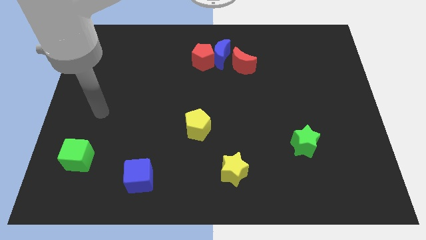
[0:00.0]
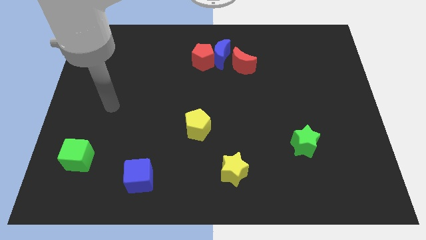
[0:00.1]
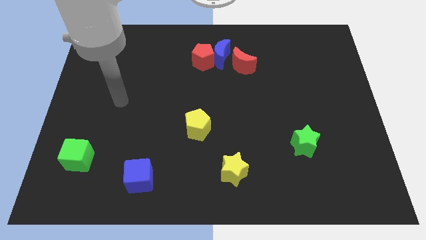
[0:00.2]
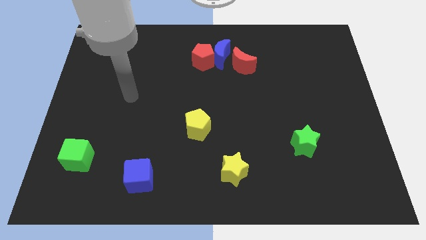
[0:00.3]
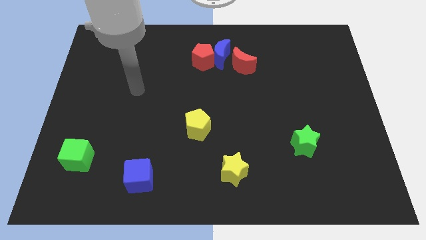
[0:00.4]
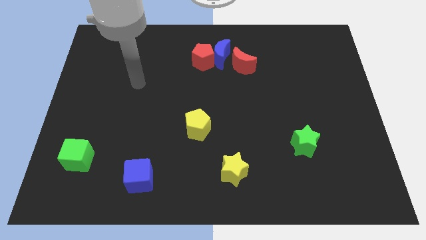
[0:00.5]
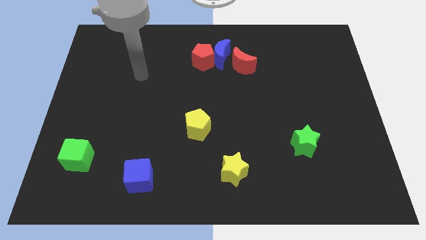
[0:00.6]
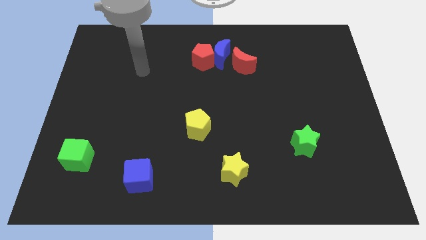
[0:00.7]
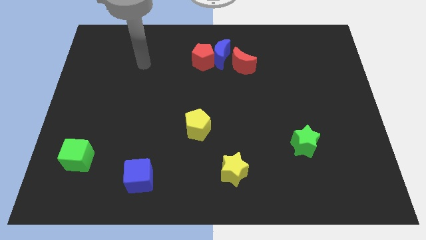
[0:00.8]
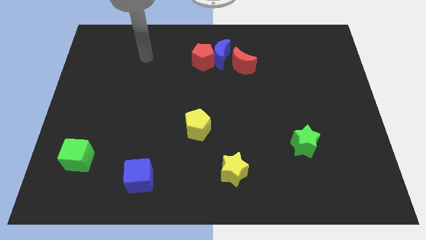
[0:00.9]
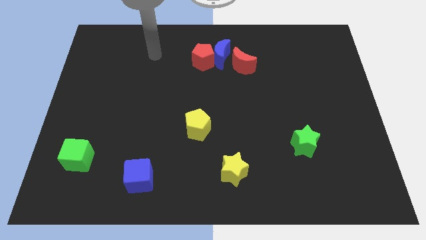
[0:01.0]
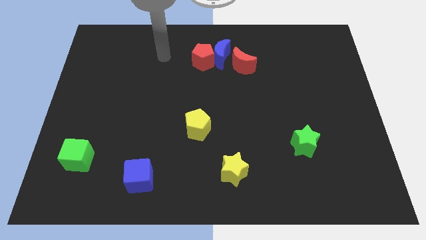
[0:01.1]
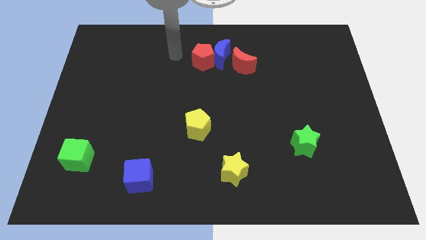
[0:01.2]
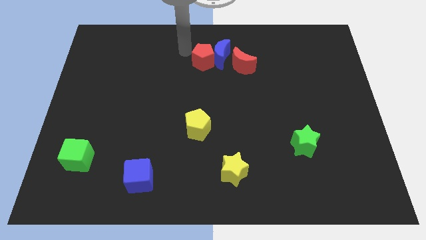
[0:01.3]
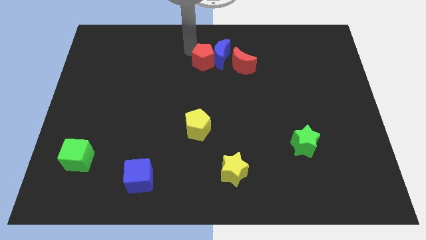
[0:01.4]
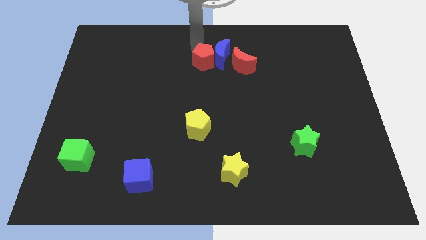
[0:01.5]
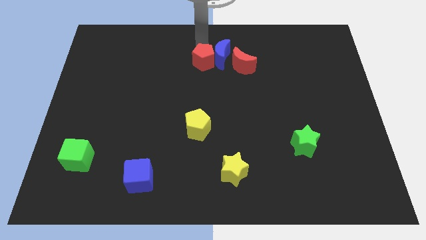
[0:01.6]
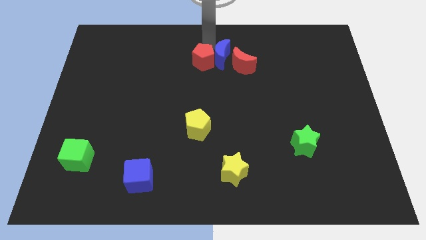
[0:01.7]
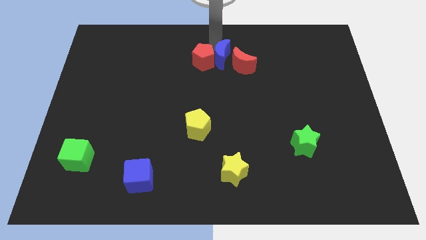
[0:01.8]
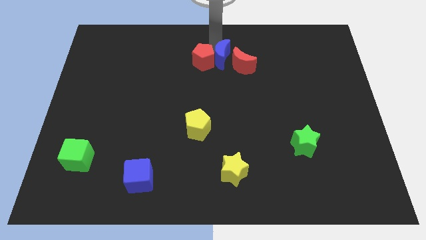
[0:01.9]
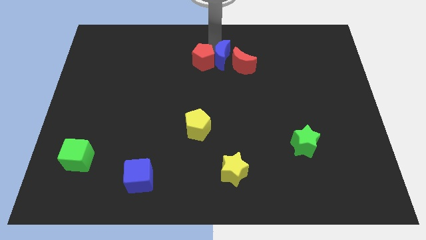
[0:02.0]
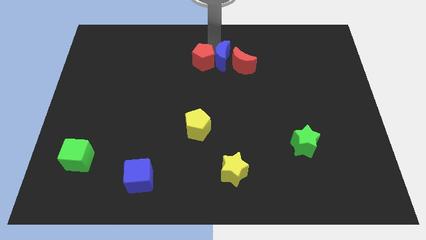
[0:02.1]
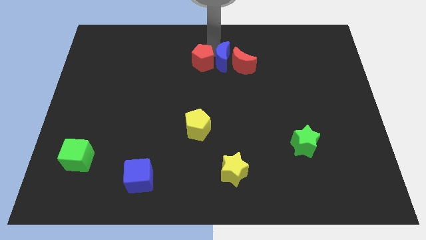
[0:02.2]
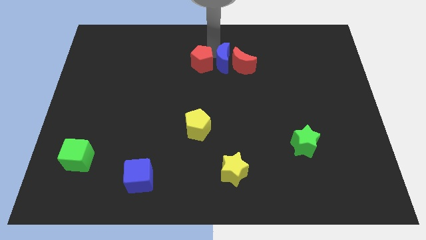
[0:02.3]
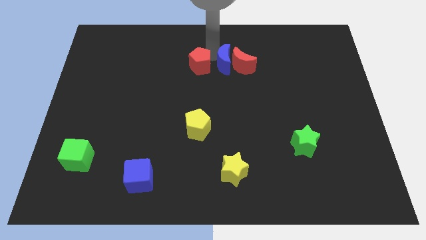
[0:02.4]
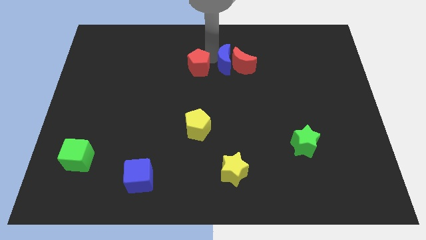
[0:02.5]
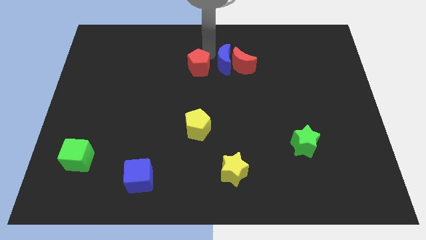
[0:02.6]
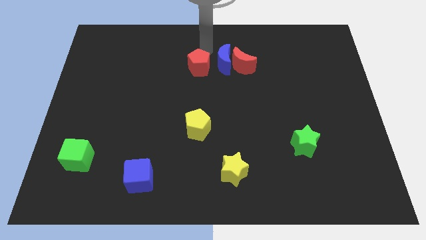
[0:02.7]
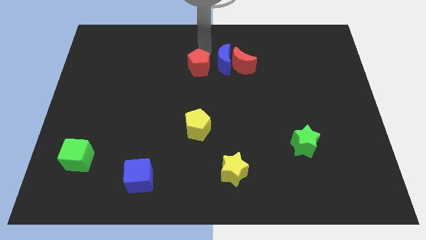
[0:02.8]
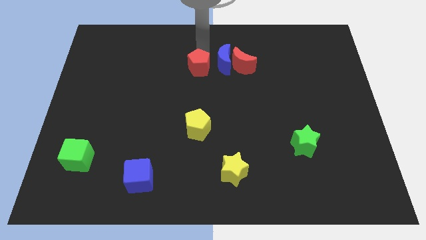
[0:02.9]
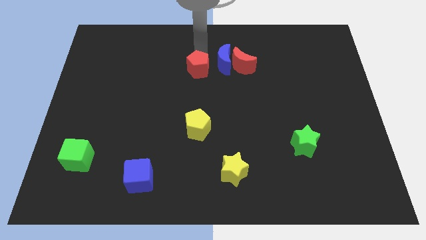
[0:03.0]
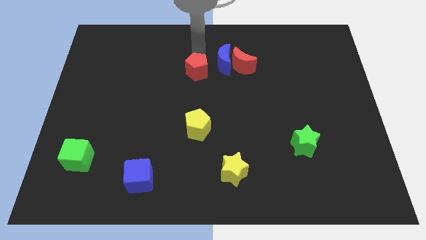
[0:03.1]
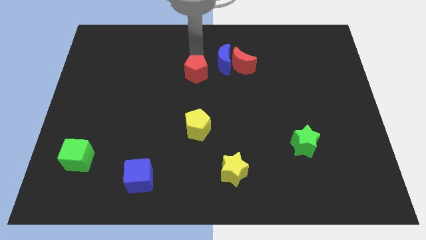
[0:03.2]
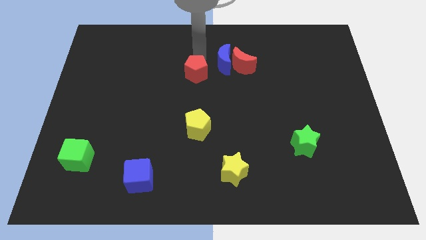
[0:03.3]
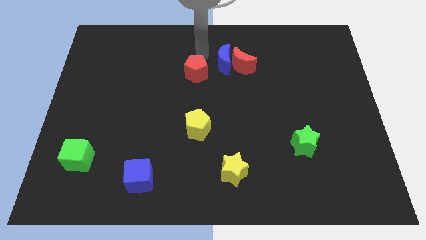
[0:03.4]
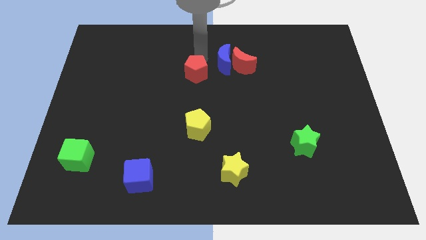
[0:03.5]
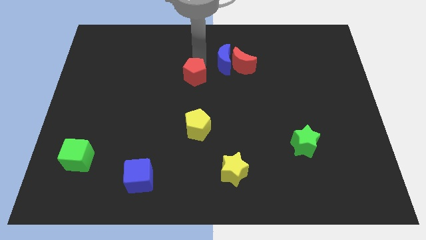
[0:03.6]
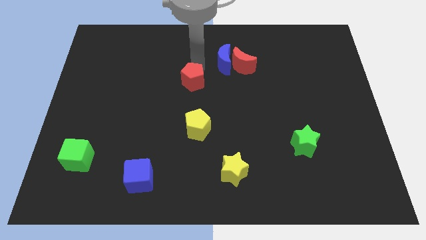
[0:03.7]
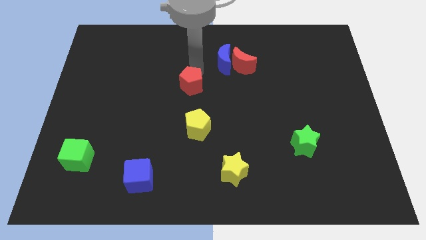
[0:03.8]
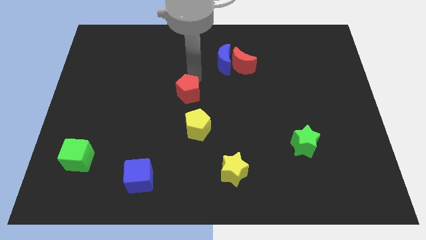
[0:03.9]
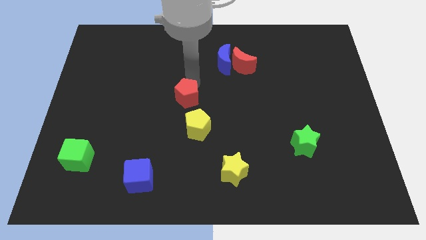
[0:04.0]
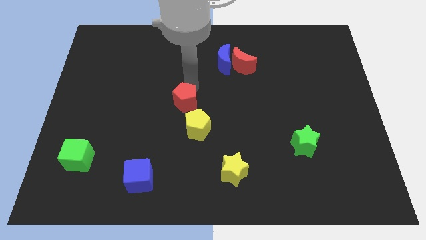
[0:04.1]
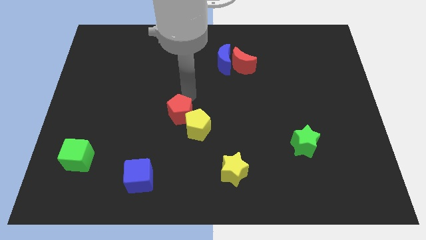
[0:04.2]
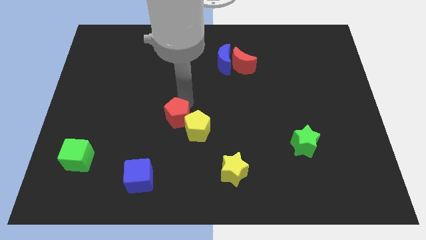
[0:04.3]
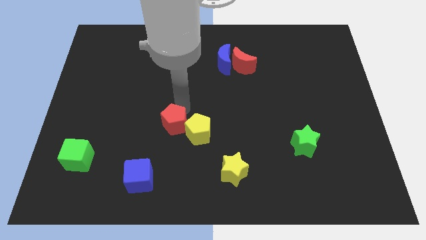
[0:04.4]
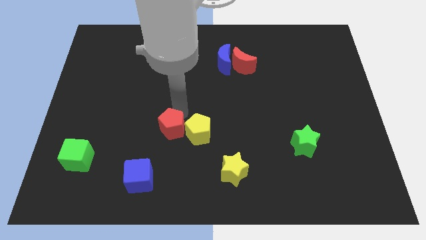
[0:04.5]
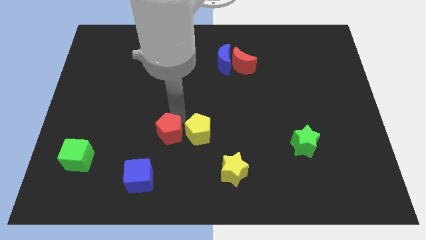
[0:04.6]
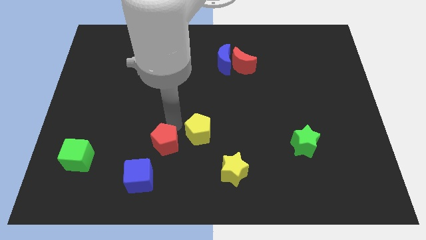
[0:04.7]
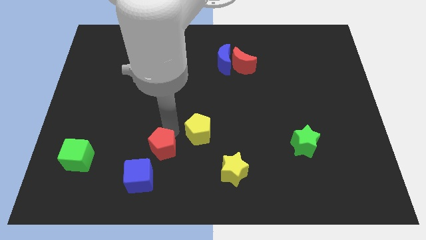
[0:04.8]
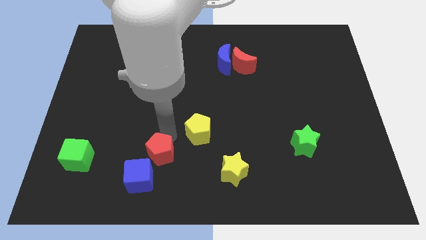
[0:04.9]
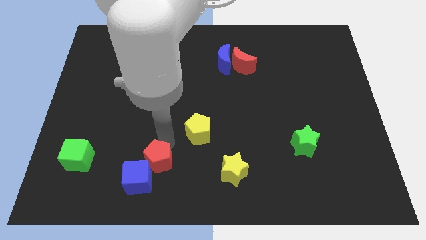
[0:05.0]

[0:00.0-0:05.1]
push the red pentagon close to the blue cube

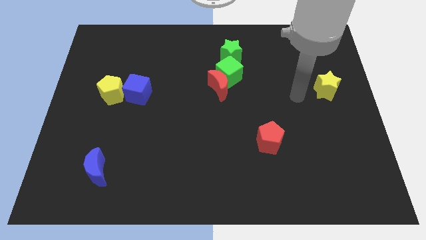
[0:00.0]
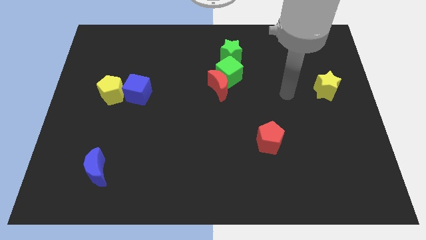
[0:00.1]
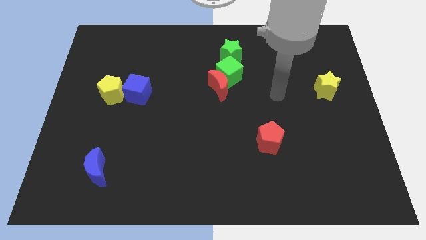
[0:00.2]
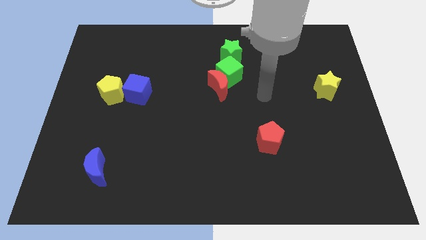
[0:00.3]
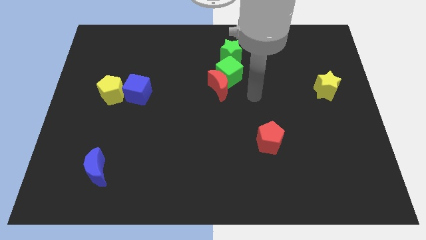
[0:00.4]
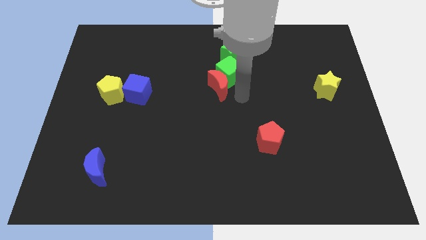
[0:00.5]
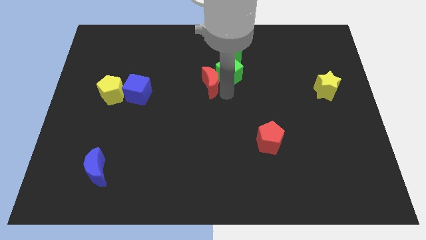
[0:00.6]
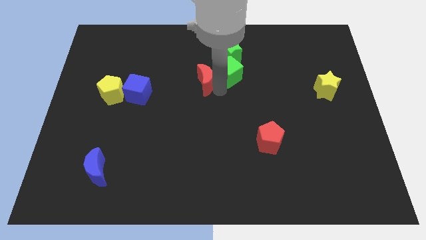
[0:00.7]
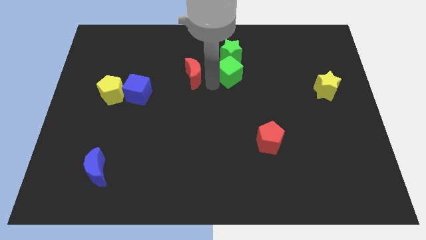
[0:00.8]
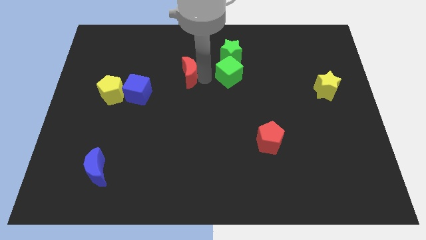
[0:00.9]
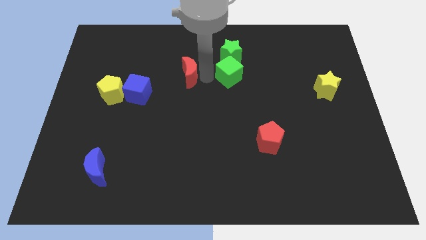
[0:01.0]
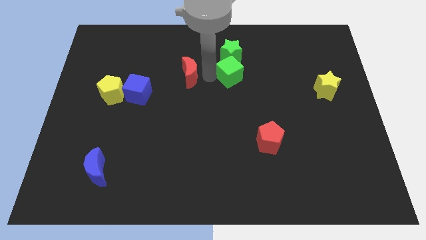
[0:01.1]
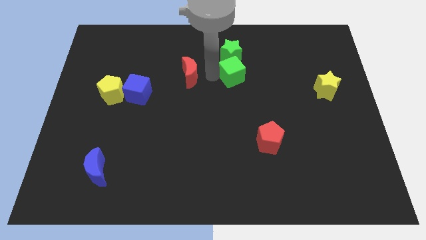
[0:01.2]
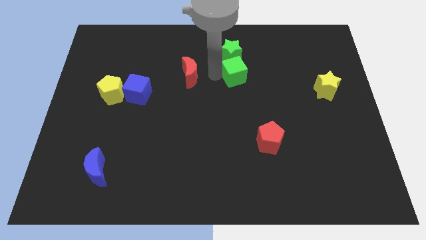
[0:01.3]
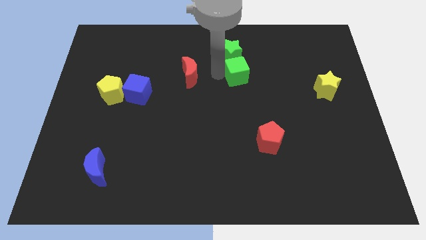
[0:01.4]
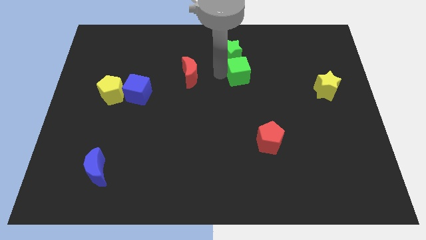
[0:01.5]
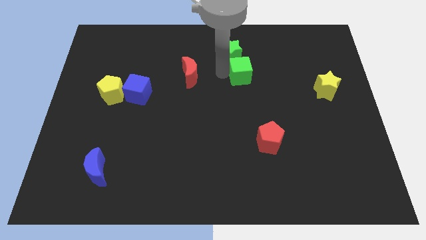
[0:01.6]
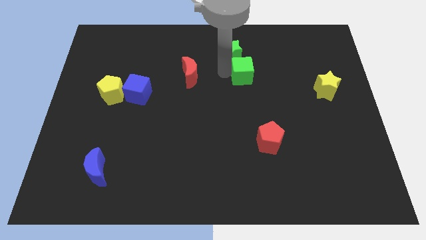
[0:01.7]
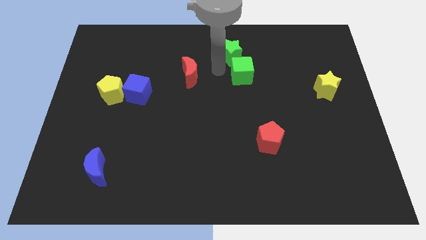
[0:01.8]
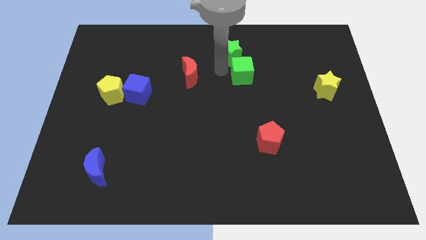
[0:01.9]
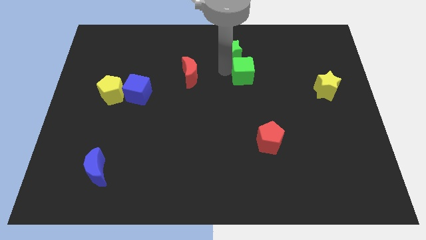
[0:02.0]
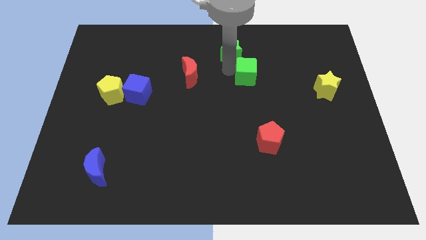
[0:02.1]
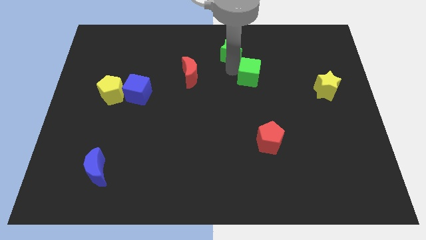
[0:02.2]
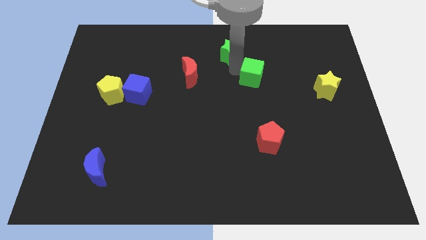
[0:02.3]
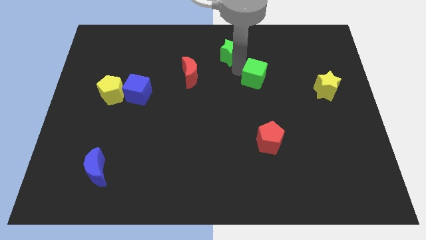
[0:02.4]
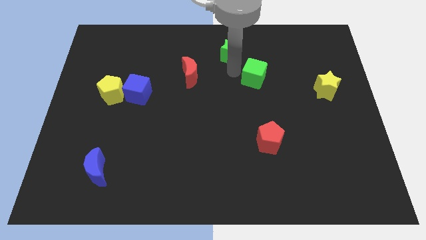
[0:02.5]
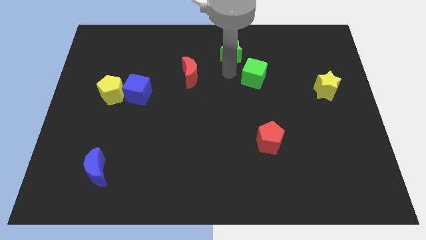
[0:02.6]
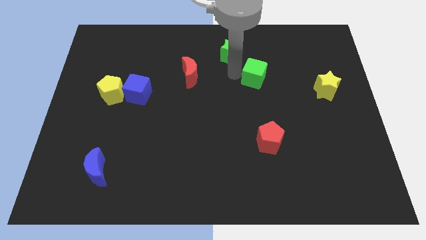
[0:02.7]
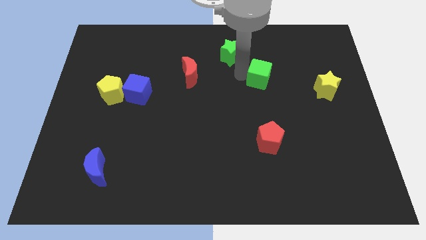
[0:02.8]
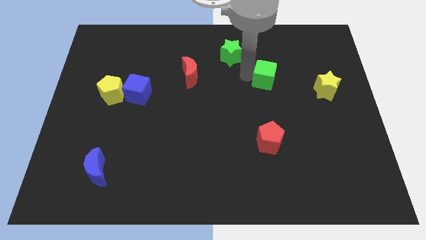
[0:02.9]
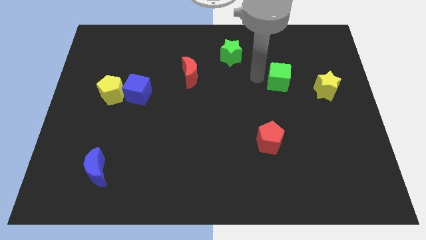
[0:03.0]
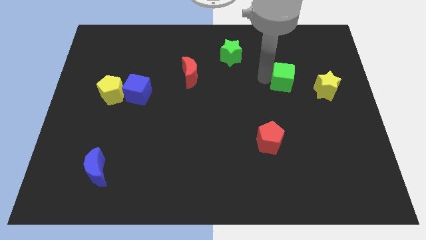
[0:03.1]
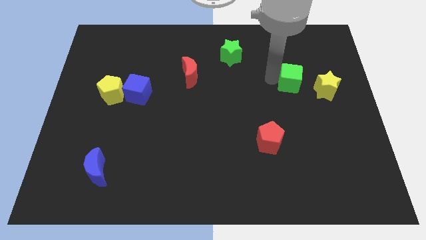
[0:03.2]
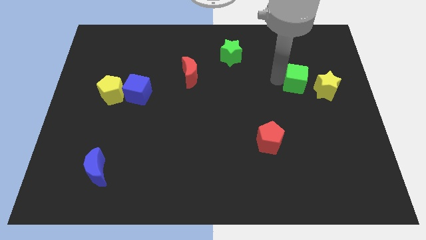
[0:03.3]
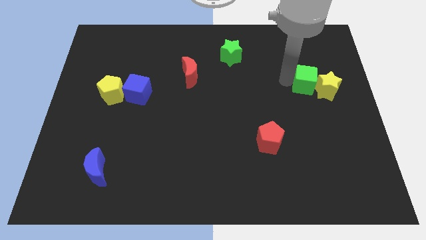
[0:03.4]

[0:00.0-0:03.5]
slide the green cube next to the yellow star
